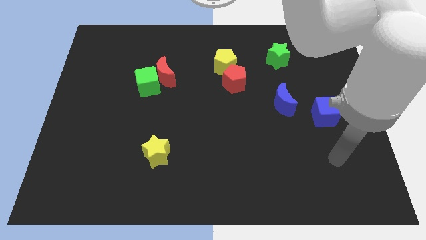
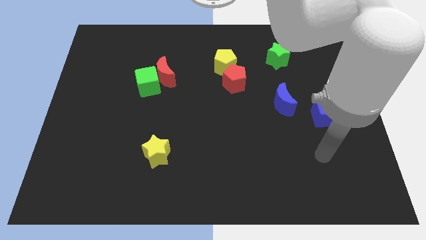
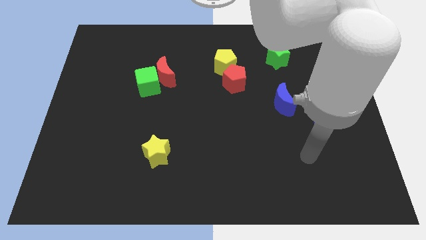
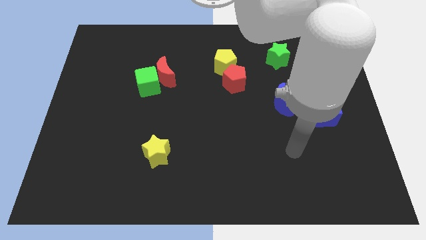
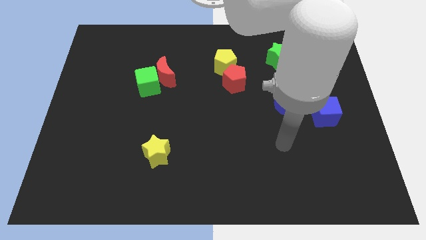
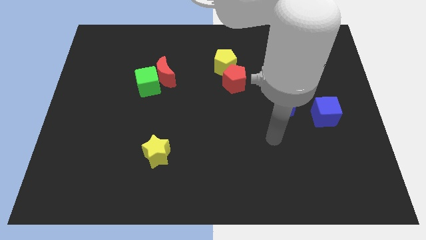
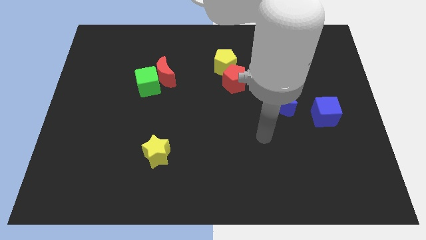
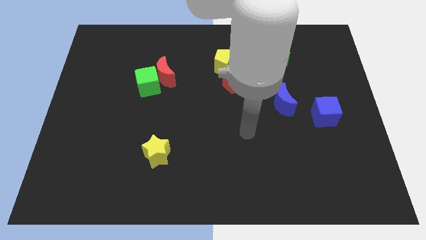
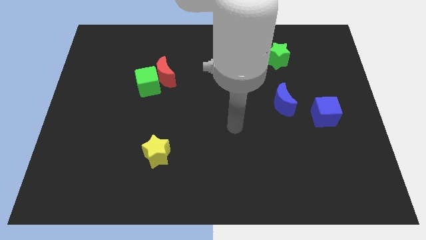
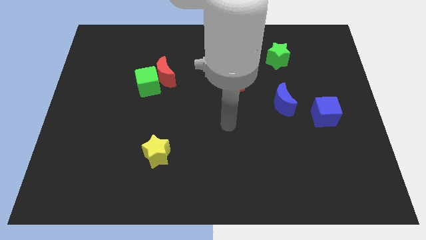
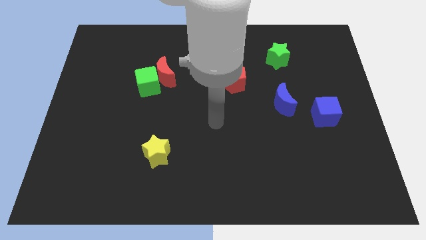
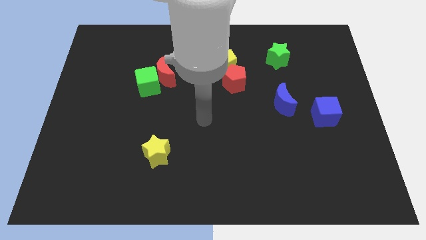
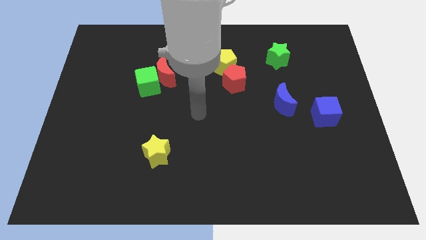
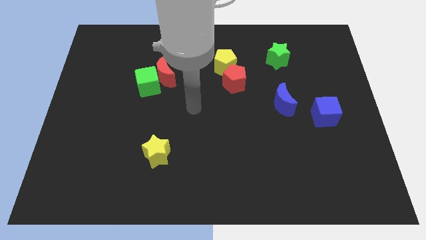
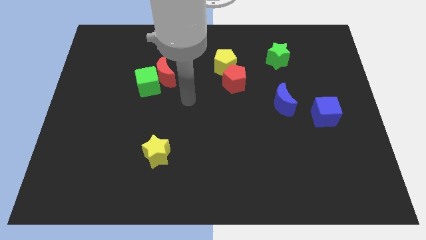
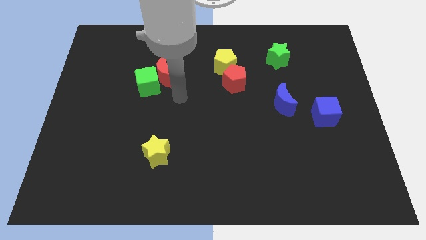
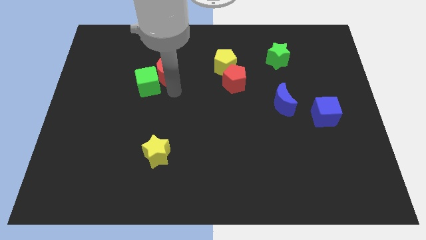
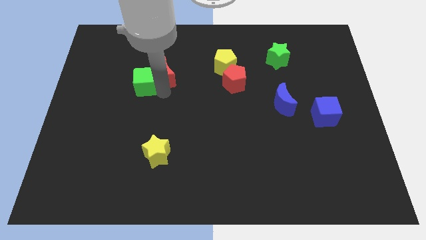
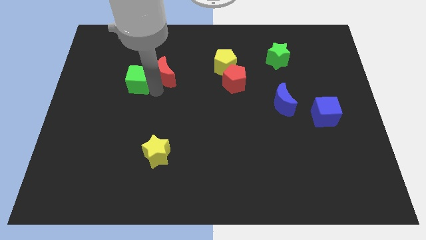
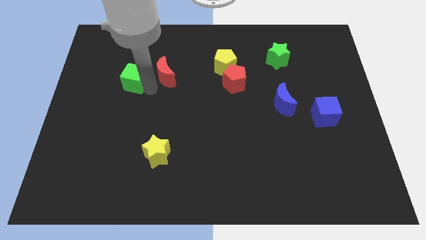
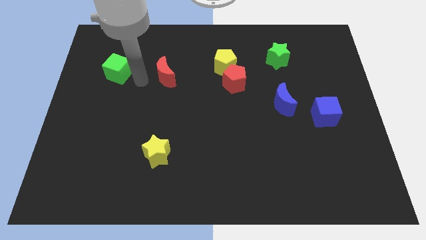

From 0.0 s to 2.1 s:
separate the red moon from the green cube

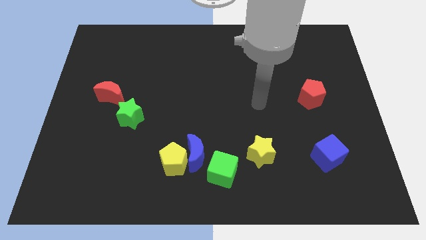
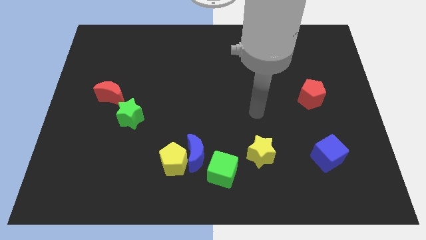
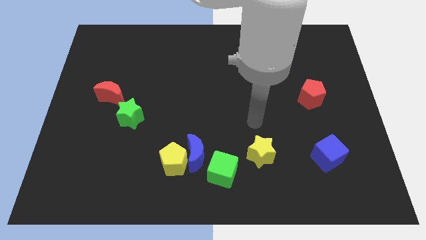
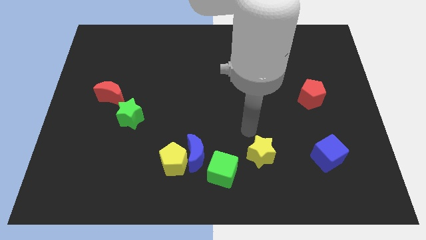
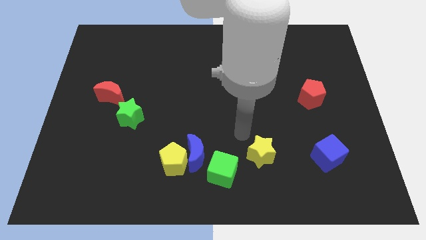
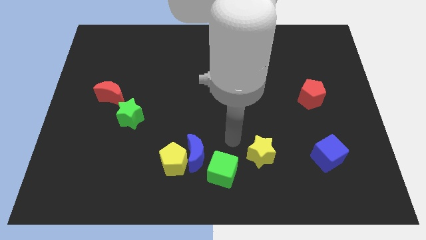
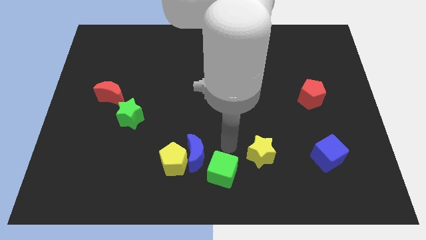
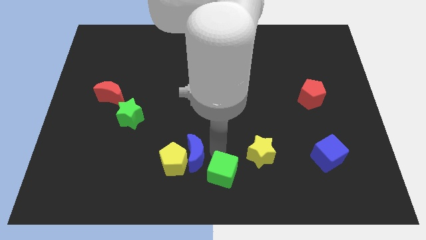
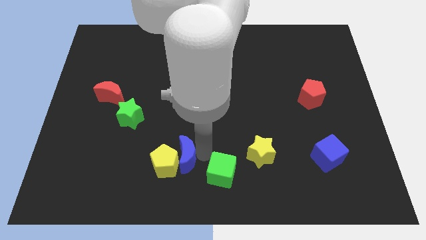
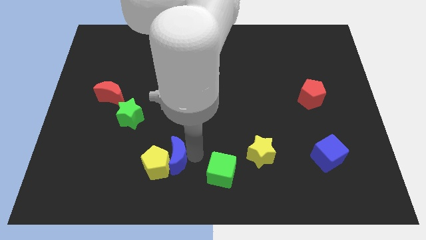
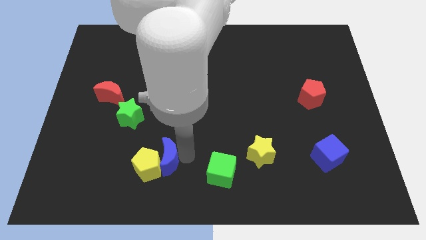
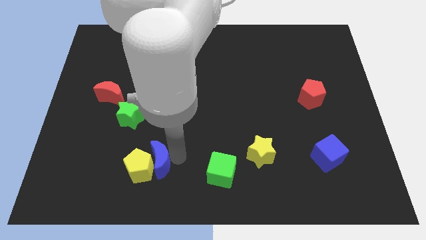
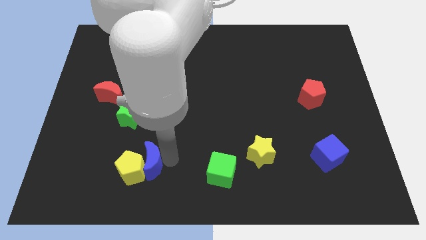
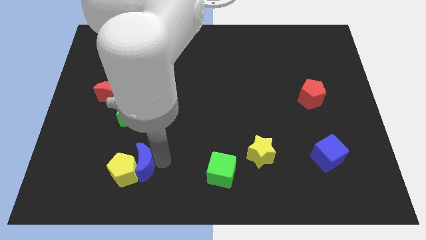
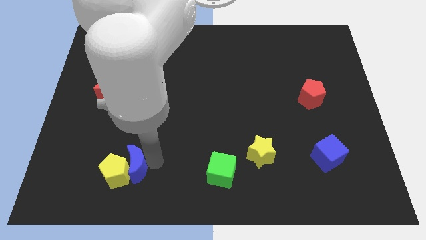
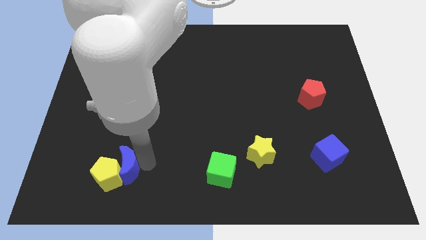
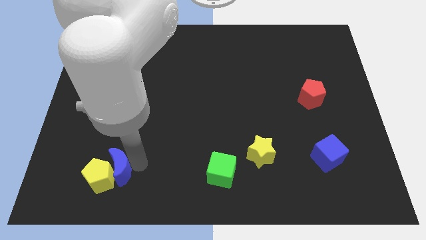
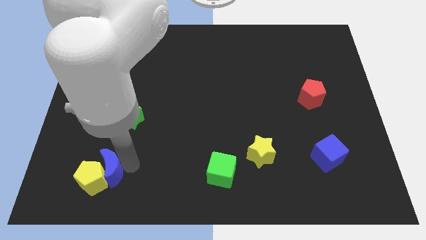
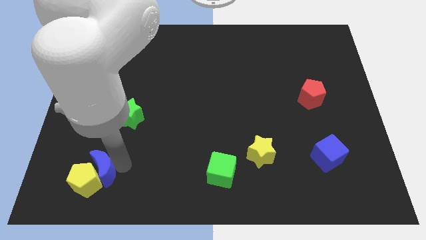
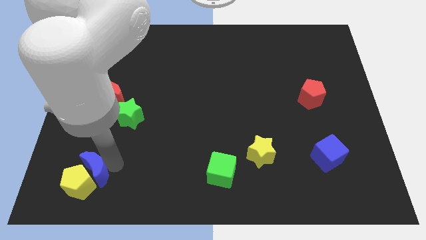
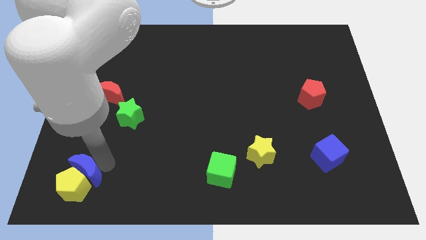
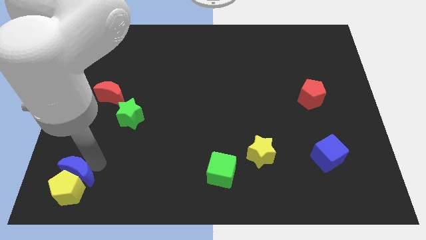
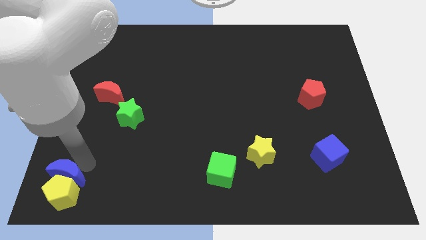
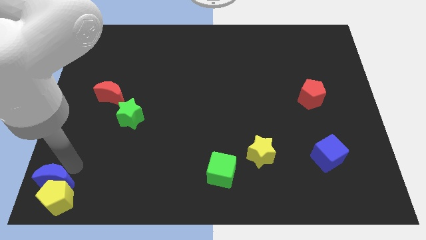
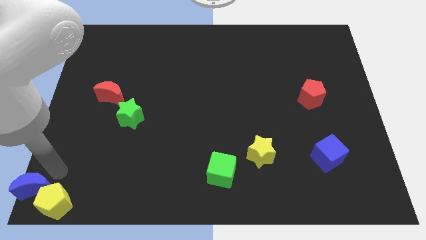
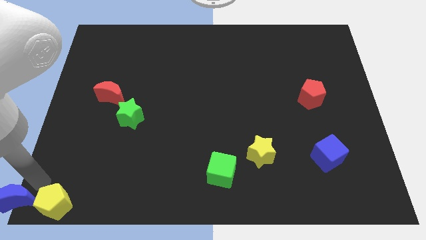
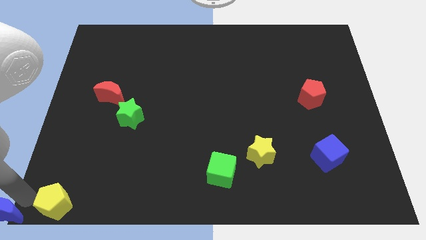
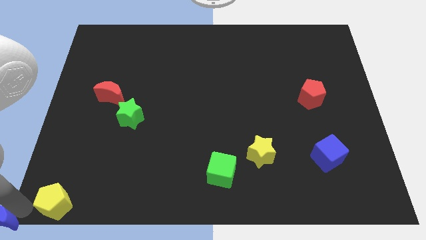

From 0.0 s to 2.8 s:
move the yellow pentagon away from the blue moon

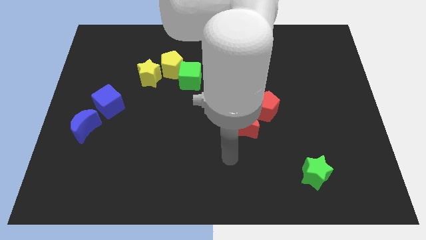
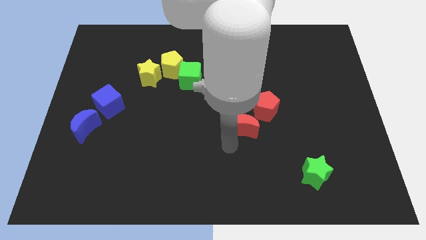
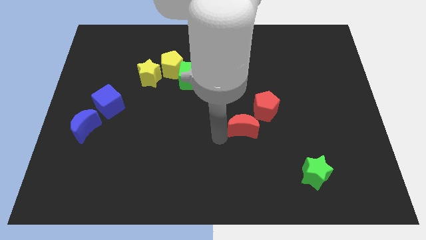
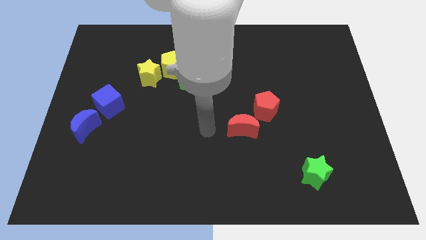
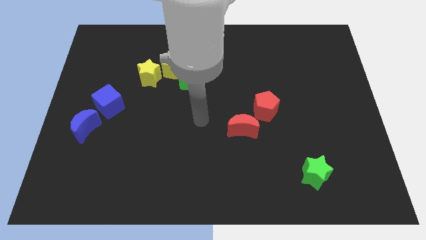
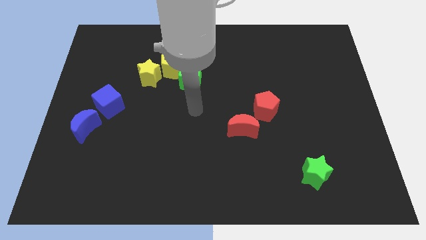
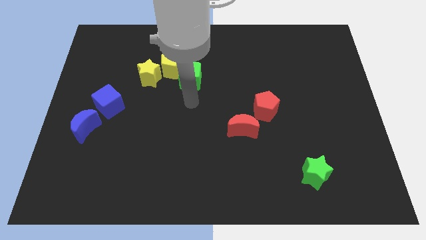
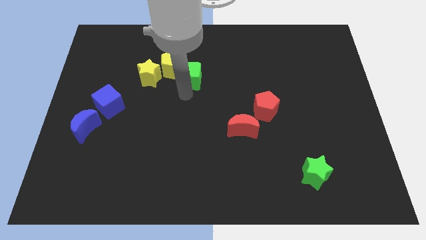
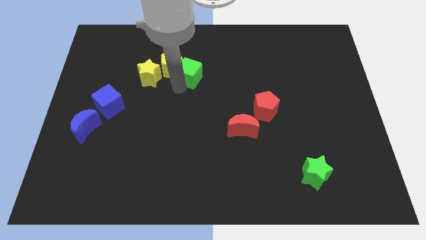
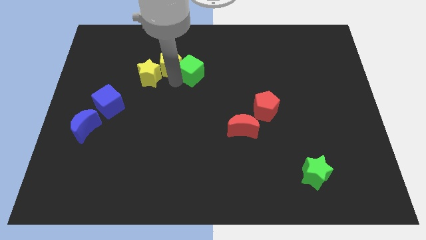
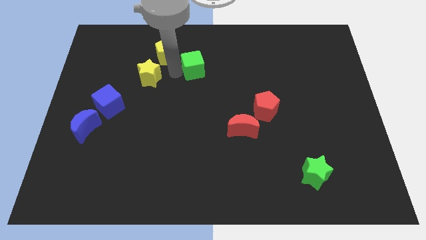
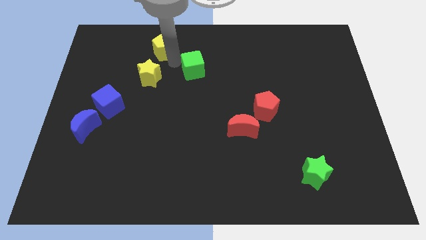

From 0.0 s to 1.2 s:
separate the green cube from the yellow pentagon

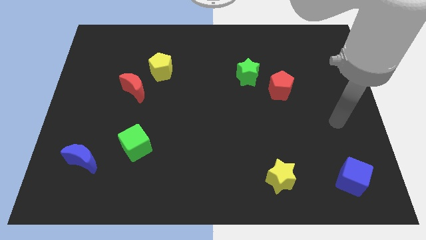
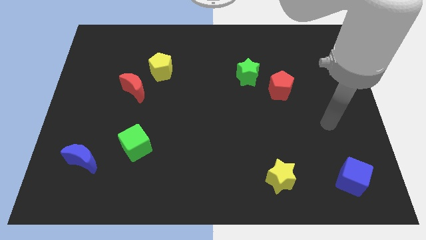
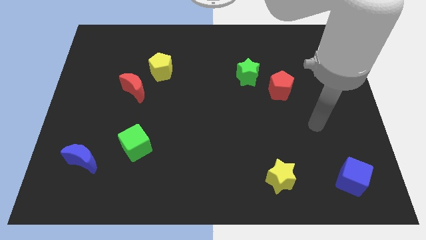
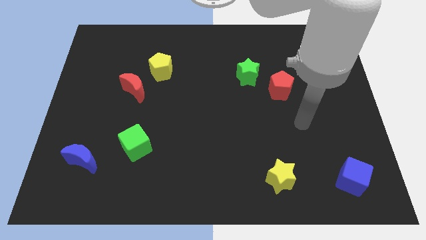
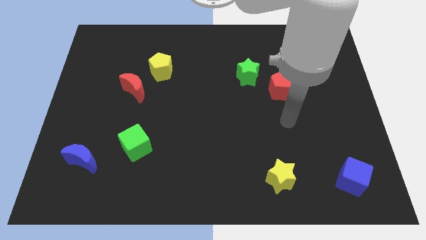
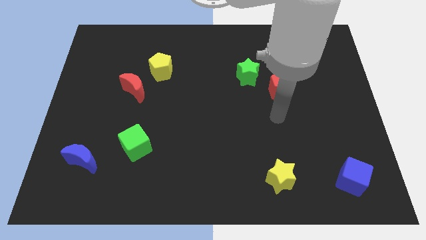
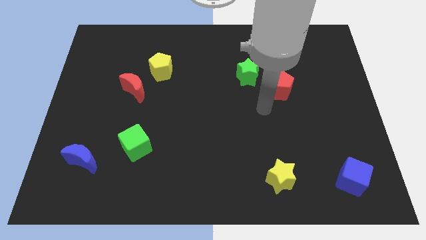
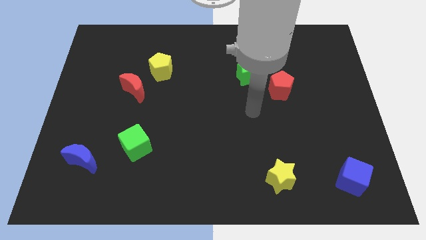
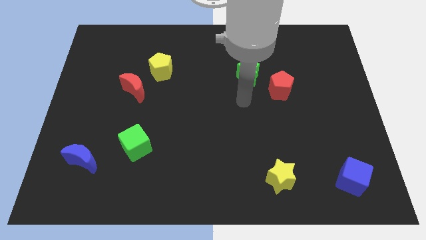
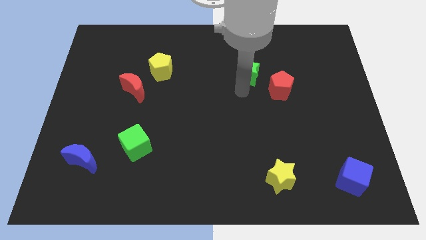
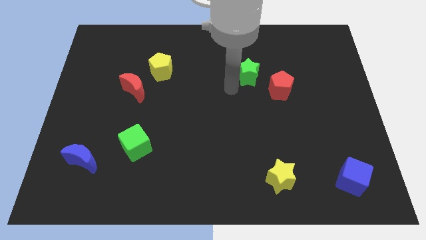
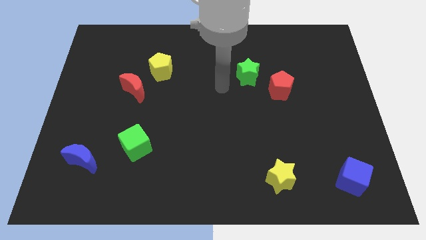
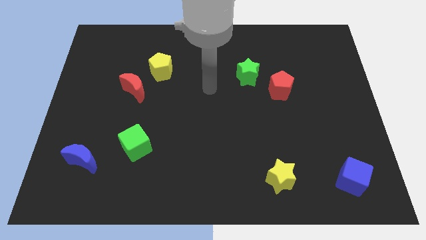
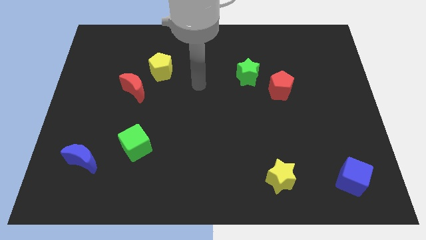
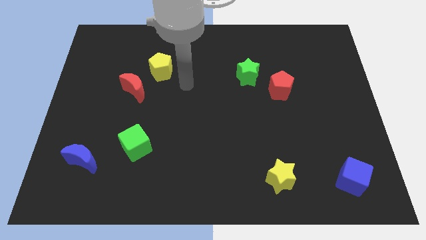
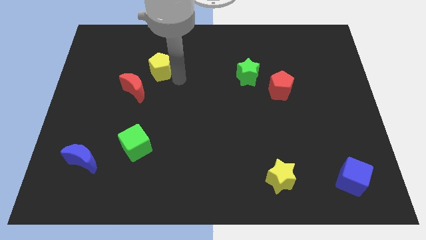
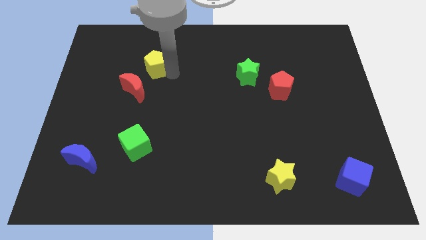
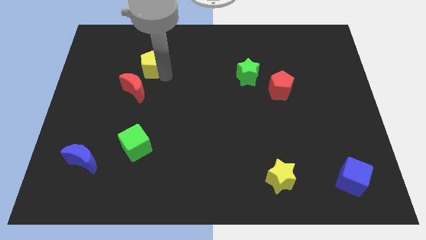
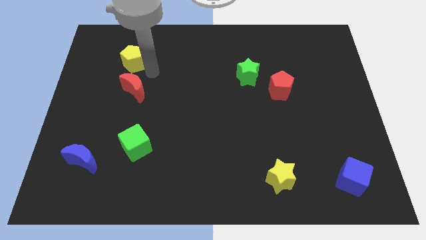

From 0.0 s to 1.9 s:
move the red moon away from the yellow pentagon

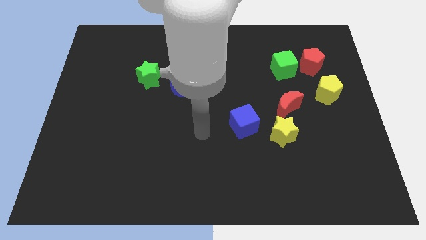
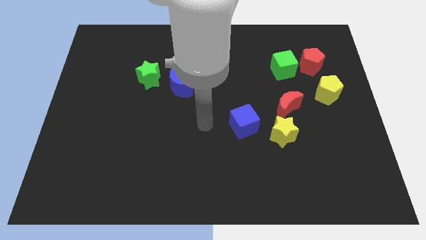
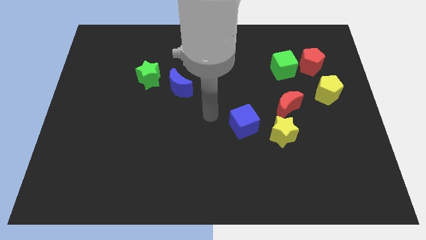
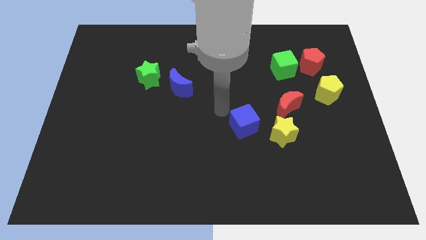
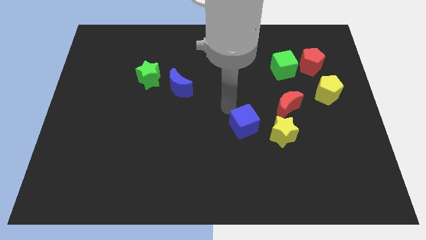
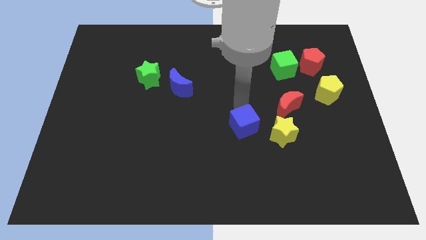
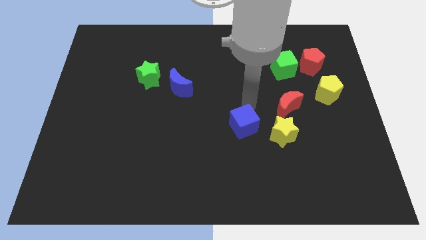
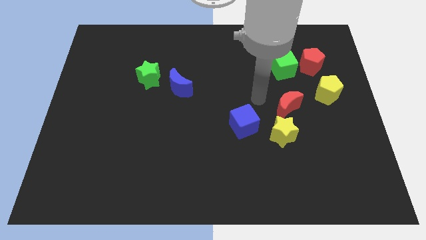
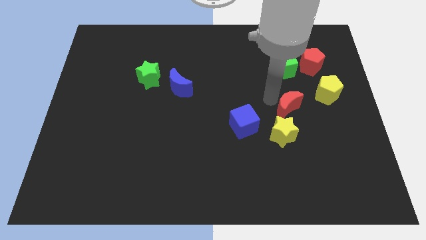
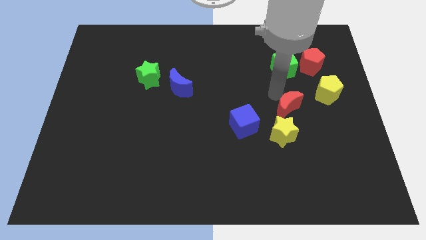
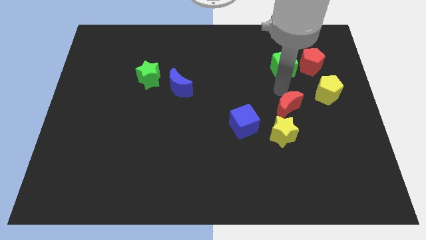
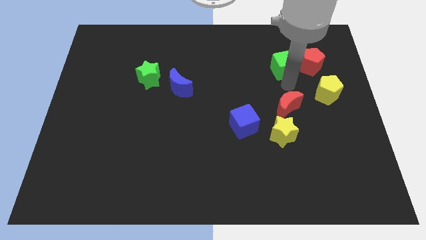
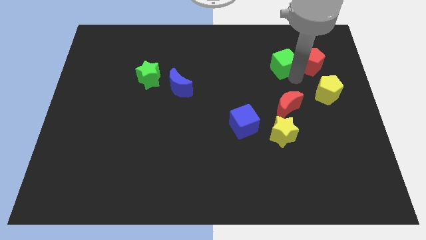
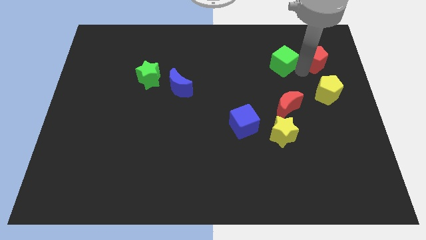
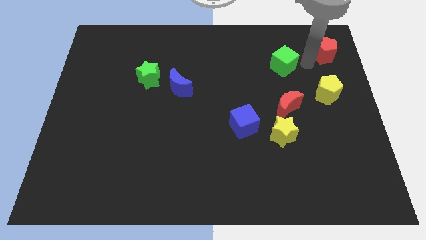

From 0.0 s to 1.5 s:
pull the green cube apart from the red pentagon
